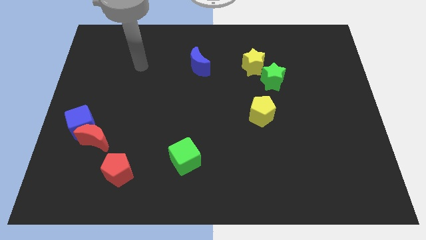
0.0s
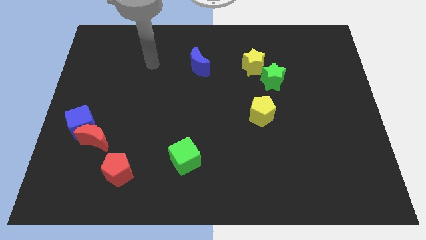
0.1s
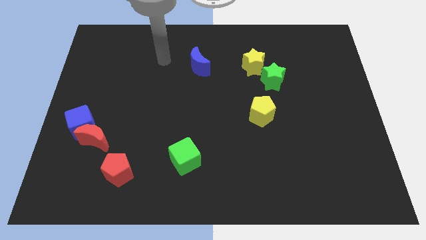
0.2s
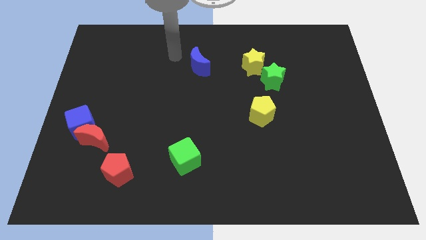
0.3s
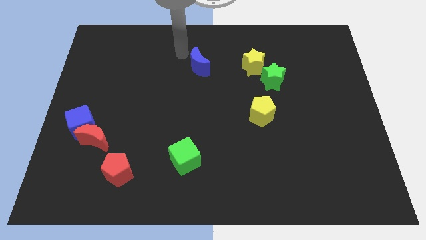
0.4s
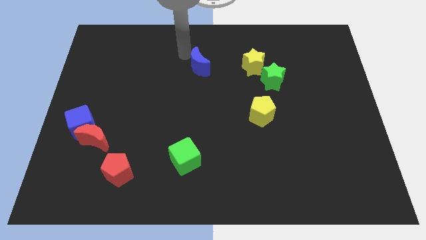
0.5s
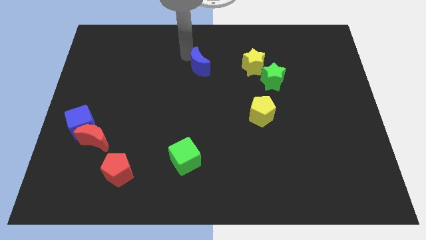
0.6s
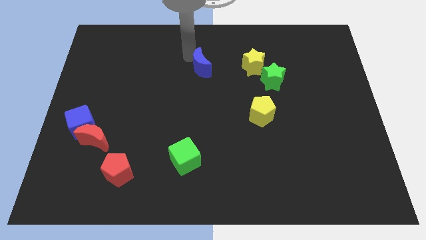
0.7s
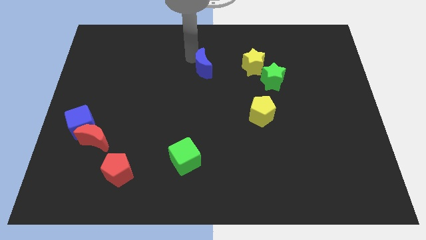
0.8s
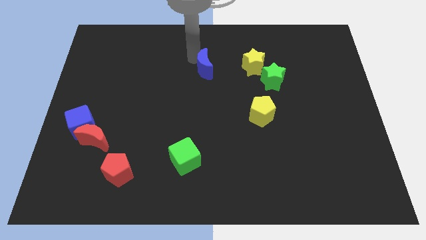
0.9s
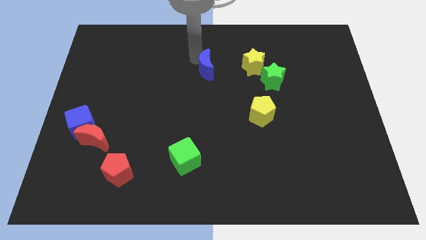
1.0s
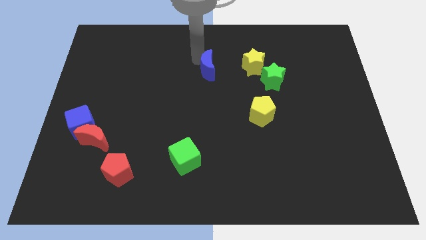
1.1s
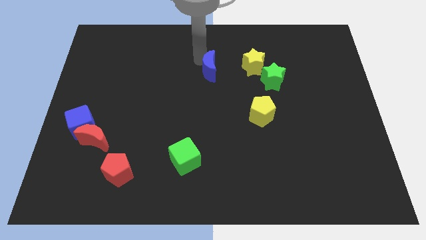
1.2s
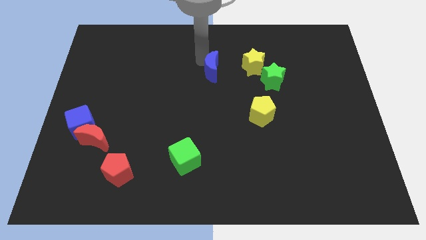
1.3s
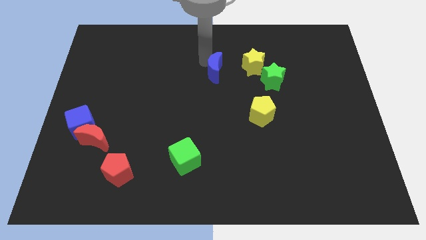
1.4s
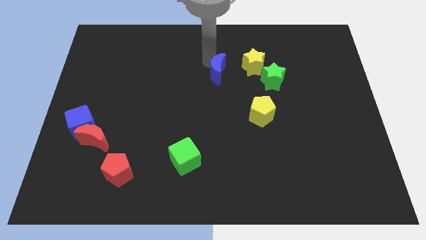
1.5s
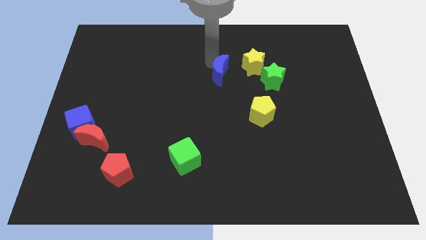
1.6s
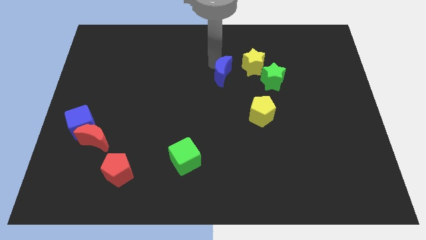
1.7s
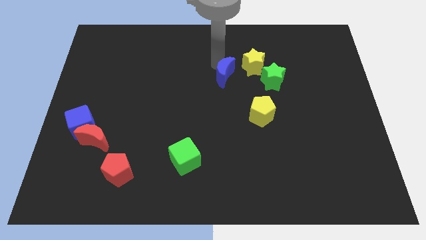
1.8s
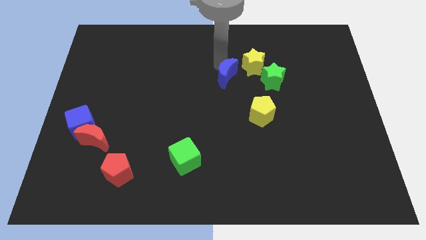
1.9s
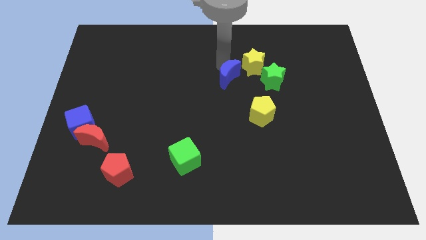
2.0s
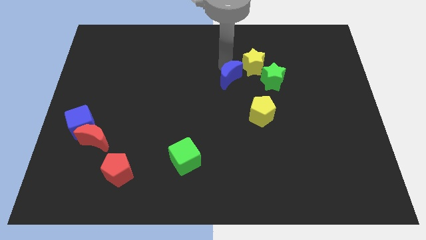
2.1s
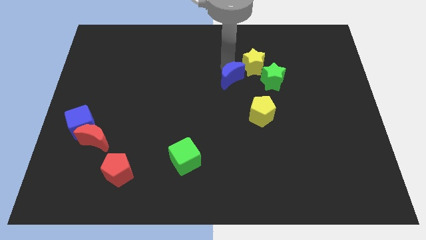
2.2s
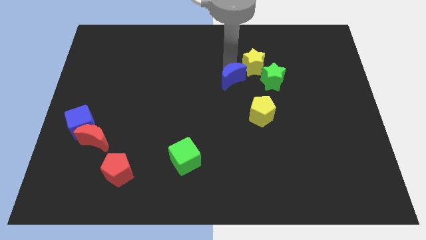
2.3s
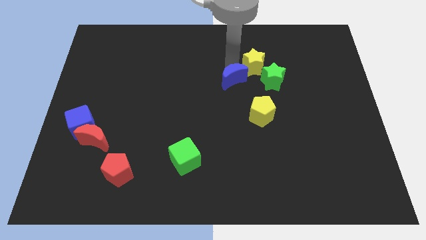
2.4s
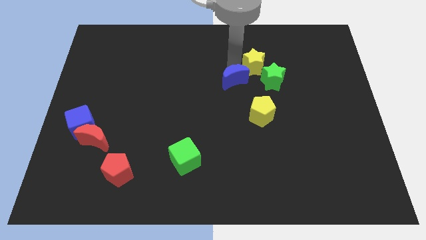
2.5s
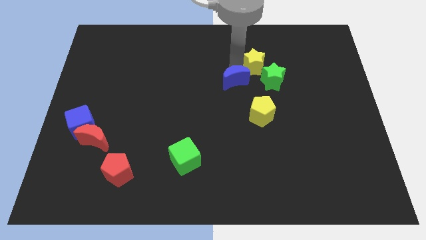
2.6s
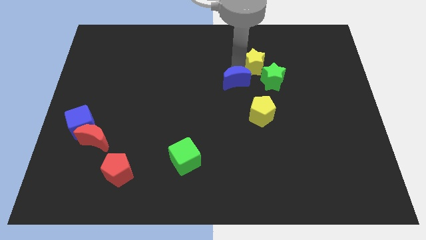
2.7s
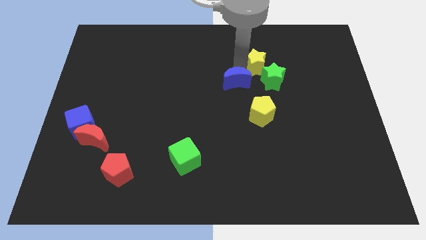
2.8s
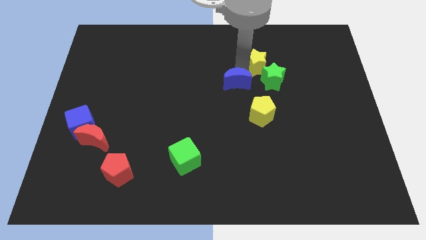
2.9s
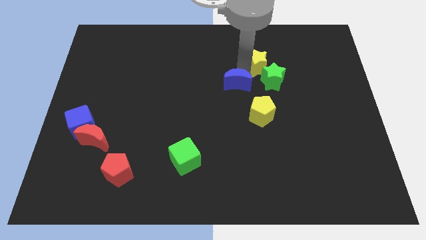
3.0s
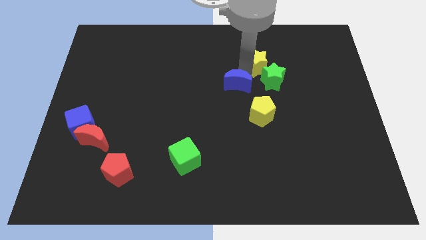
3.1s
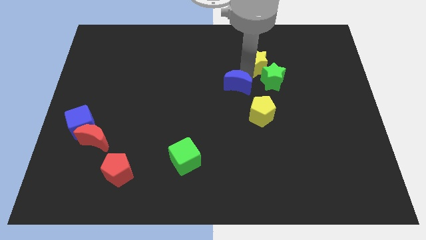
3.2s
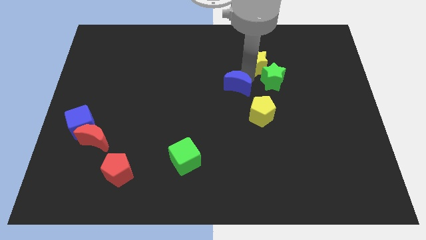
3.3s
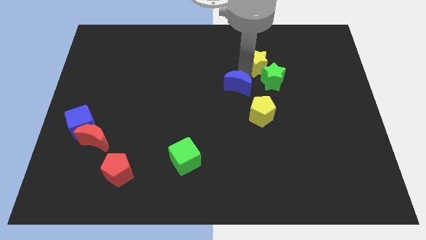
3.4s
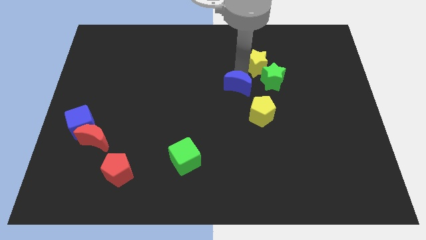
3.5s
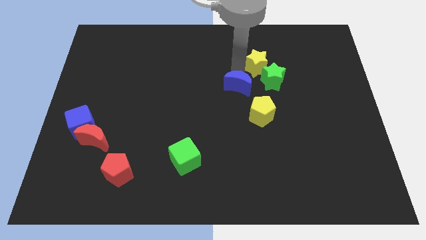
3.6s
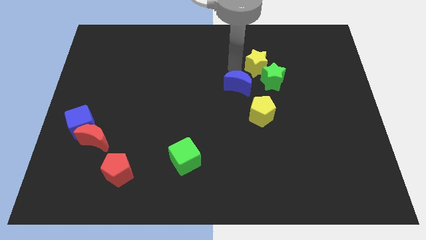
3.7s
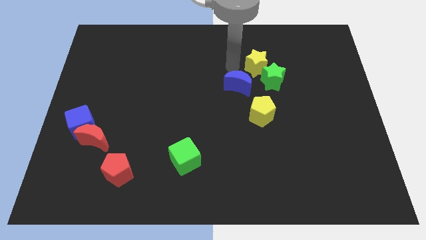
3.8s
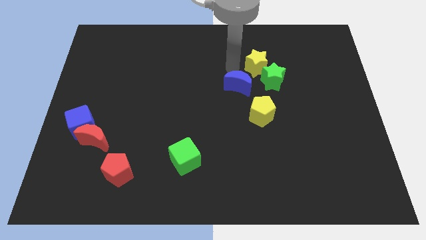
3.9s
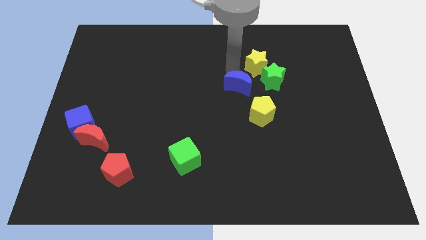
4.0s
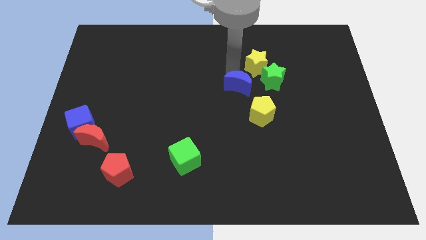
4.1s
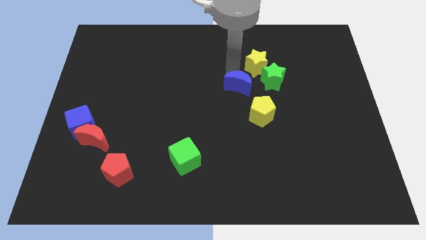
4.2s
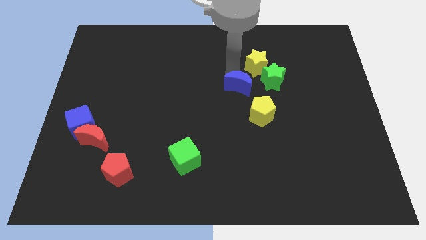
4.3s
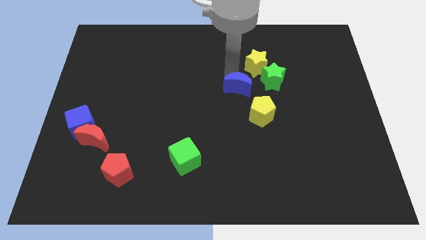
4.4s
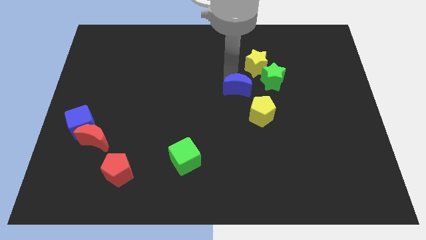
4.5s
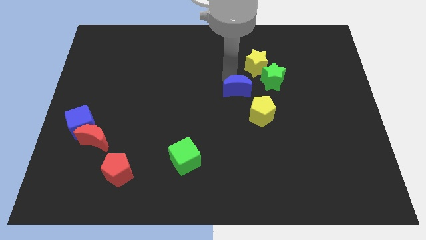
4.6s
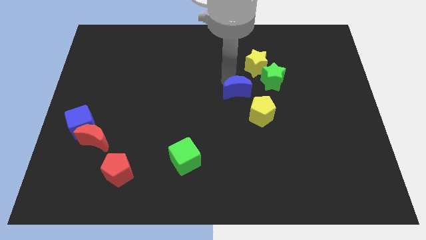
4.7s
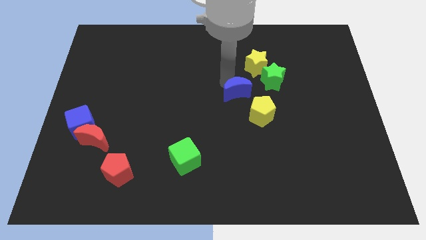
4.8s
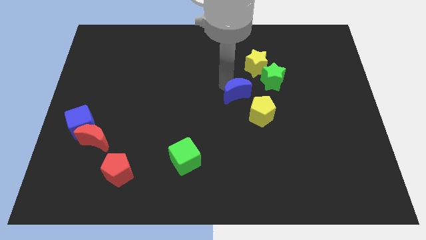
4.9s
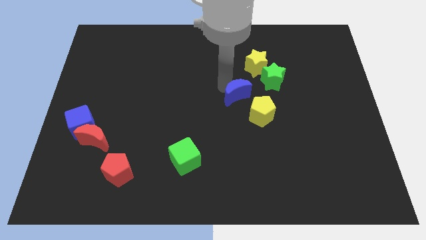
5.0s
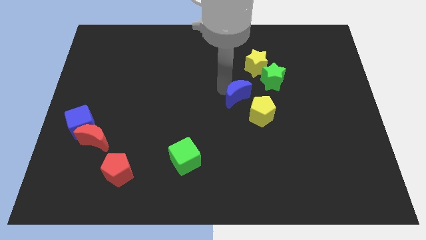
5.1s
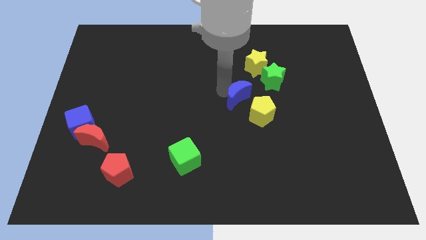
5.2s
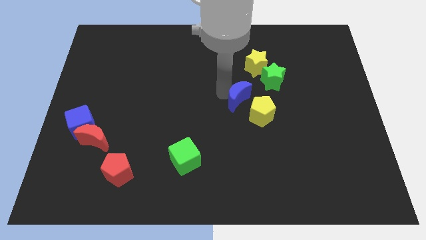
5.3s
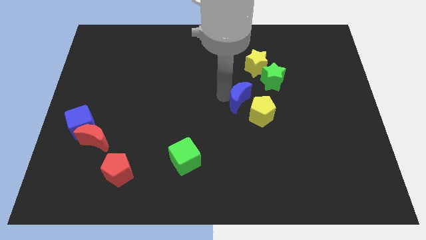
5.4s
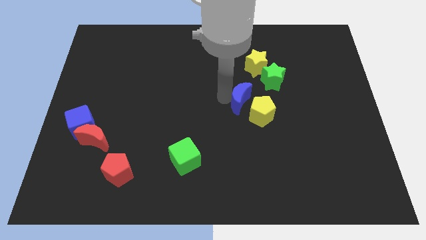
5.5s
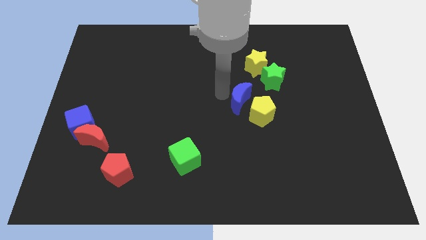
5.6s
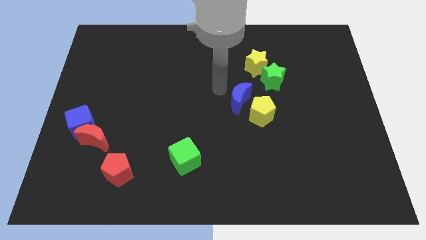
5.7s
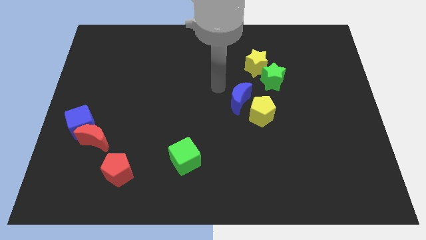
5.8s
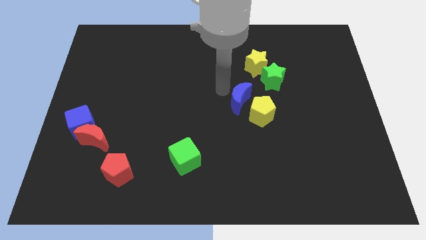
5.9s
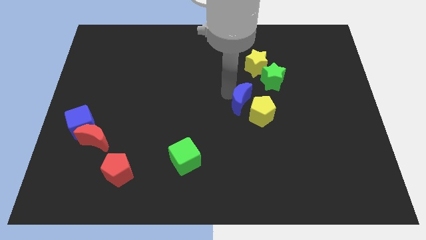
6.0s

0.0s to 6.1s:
slide the blue moon to the yellow pentagon

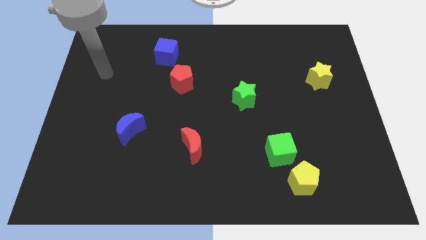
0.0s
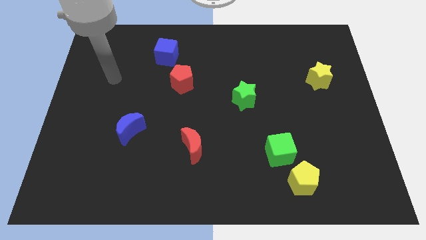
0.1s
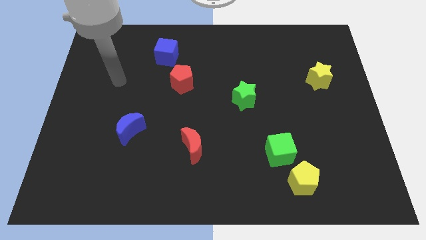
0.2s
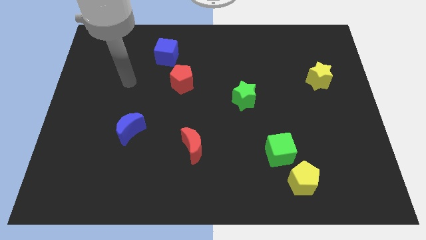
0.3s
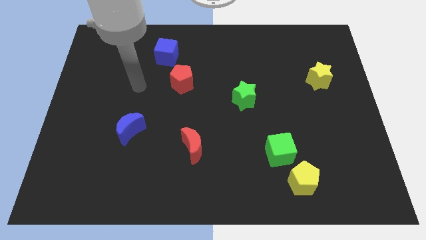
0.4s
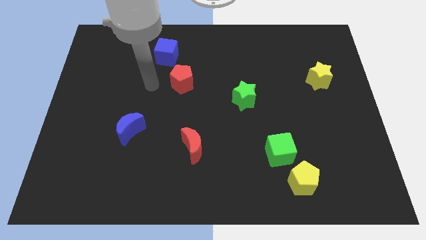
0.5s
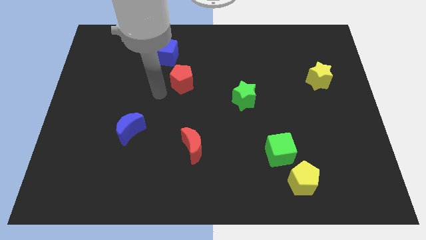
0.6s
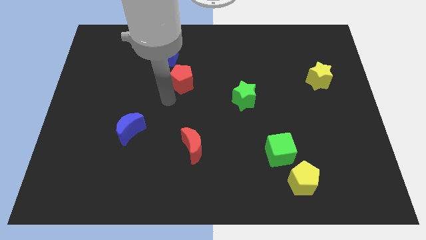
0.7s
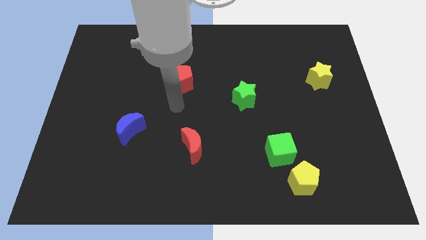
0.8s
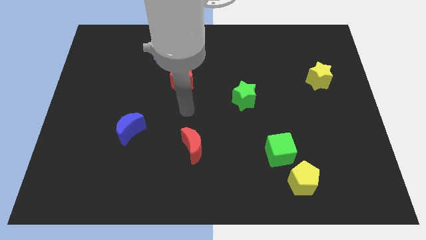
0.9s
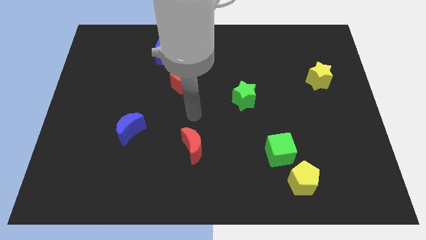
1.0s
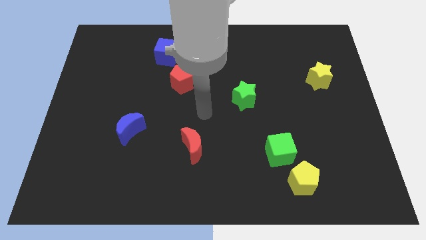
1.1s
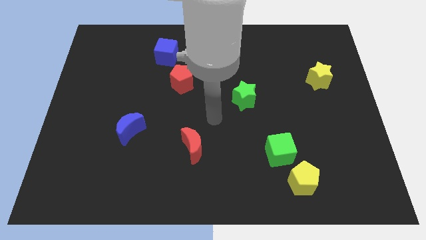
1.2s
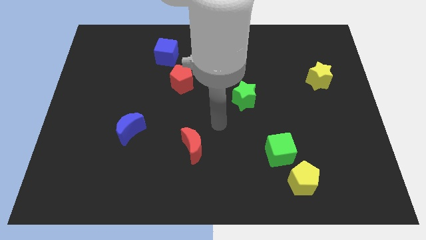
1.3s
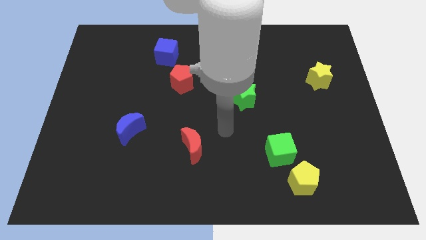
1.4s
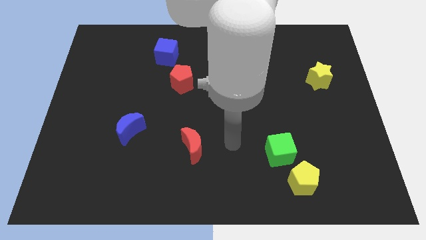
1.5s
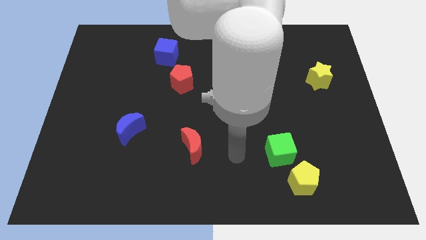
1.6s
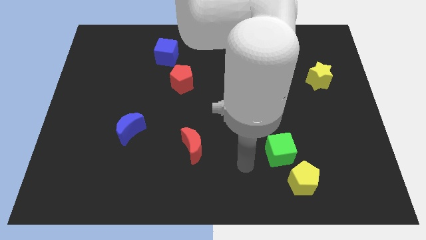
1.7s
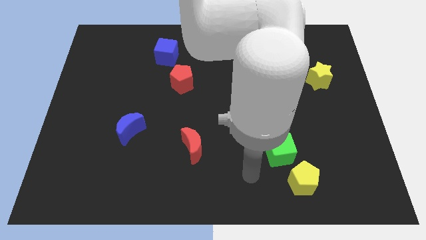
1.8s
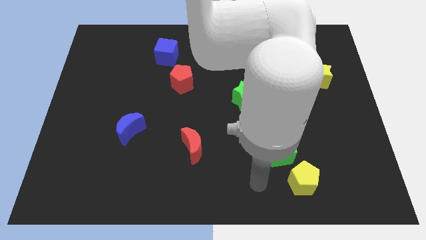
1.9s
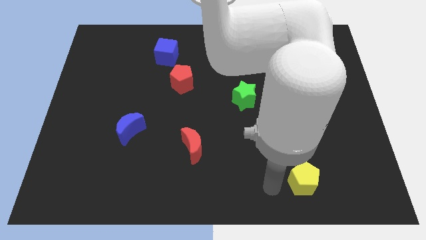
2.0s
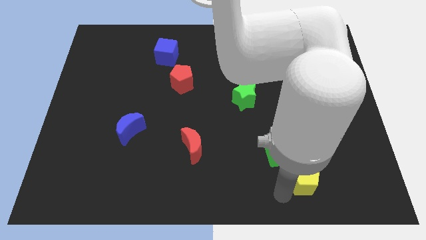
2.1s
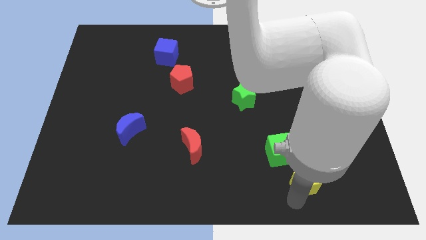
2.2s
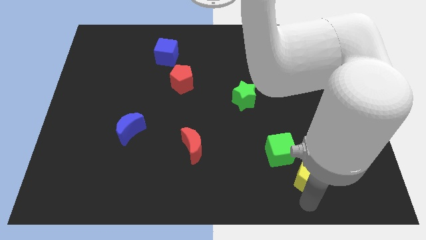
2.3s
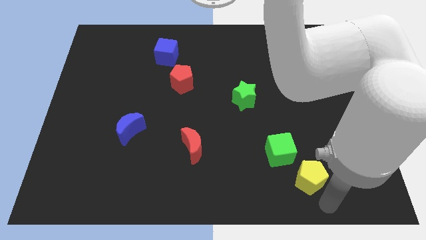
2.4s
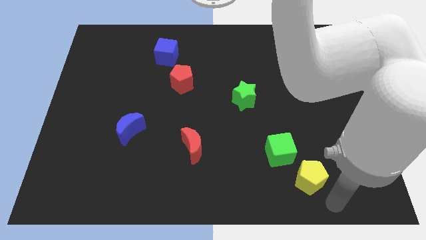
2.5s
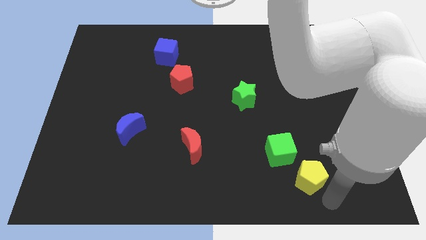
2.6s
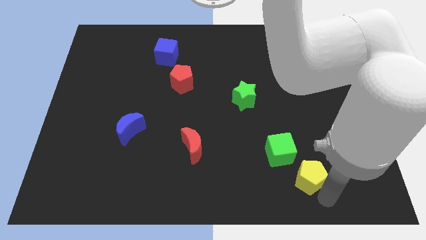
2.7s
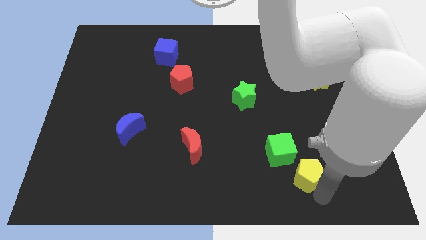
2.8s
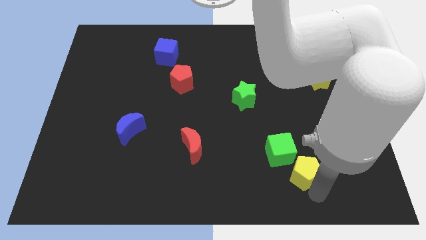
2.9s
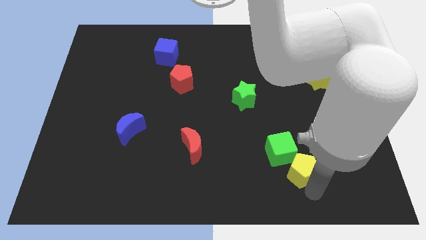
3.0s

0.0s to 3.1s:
push the yellow pentagon towards the green cube
